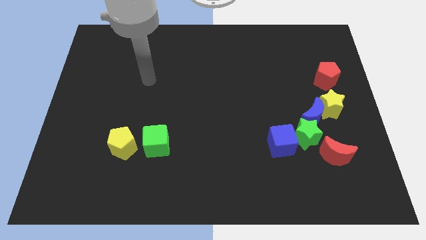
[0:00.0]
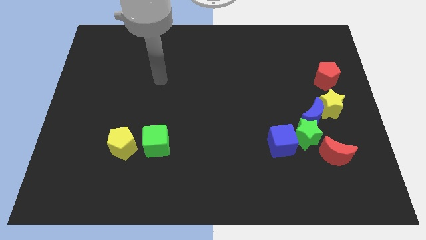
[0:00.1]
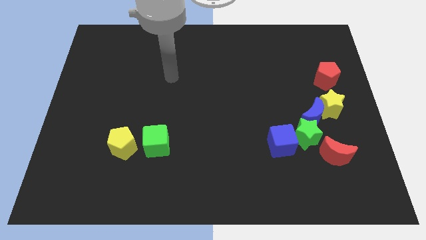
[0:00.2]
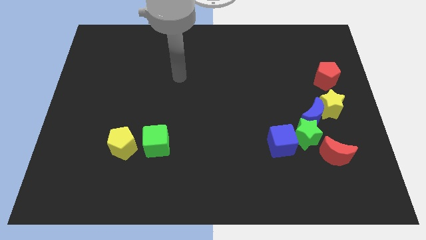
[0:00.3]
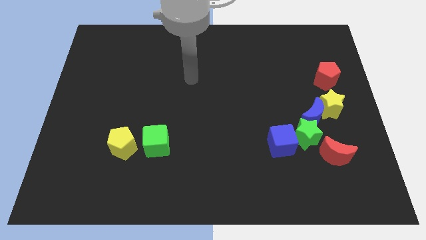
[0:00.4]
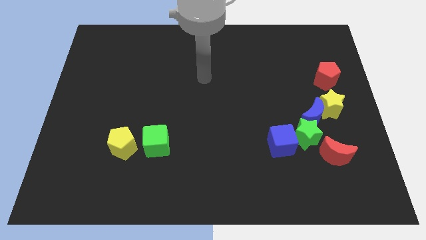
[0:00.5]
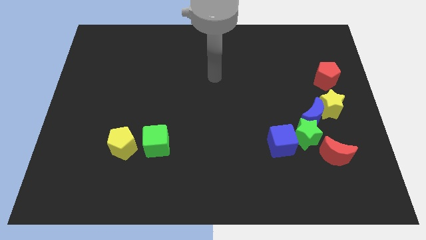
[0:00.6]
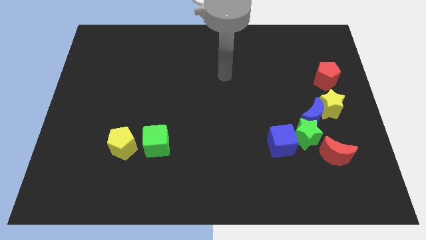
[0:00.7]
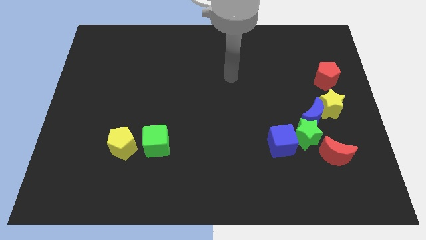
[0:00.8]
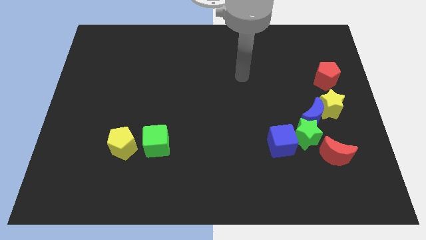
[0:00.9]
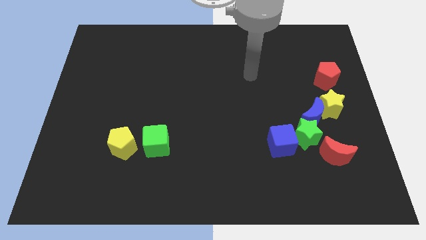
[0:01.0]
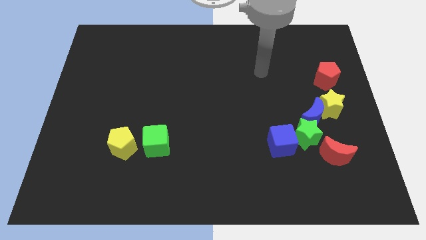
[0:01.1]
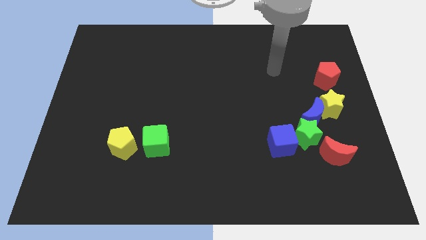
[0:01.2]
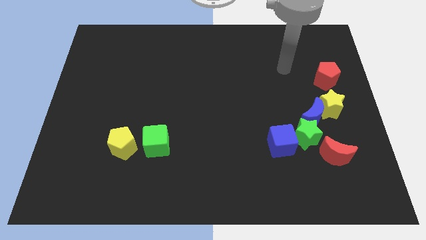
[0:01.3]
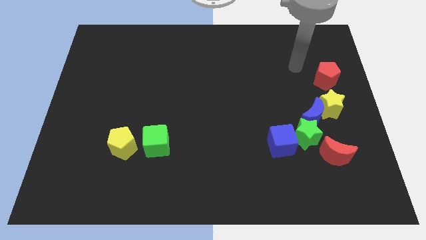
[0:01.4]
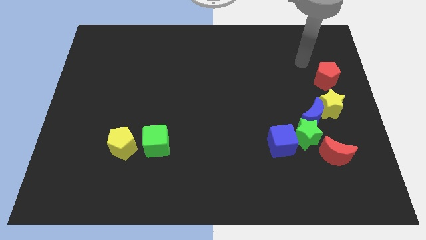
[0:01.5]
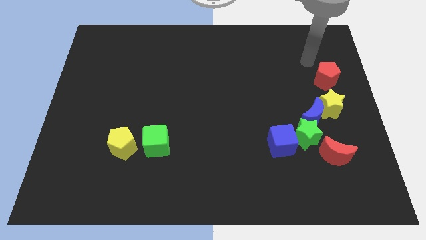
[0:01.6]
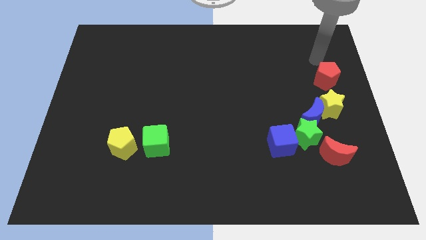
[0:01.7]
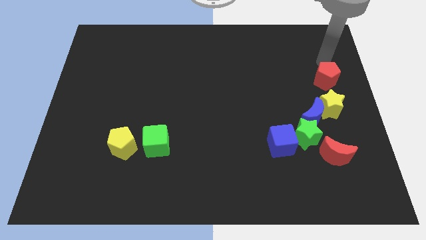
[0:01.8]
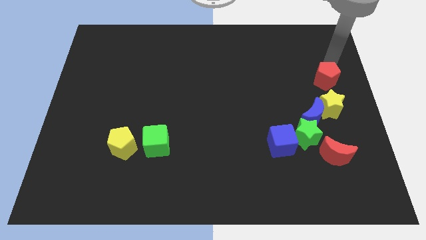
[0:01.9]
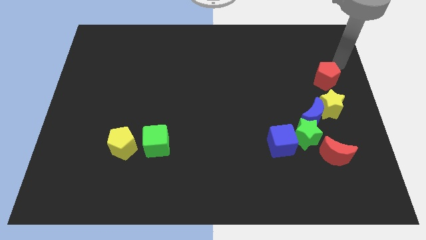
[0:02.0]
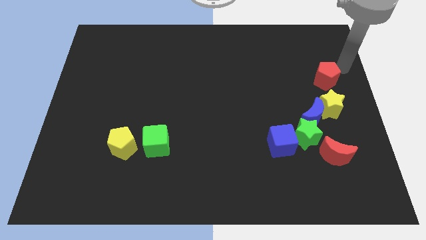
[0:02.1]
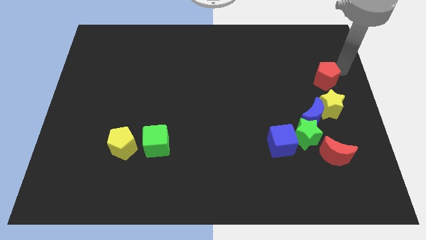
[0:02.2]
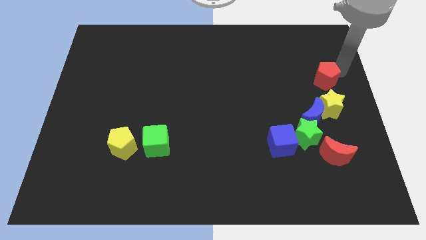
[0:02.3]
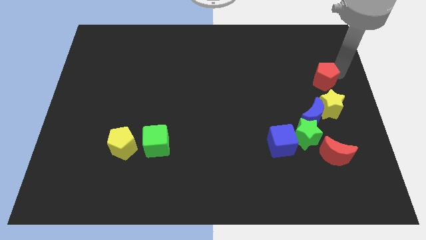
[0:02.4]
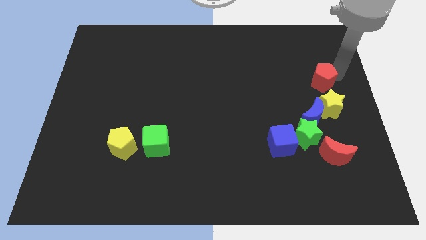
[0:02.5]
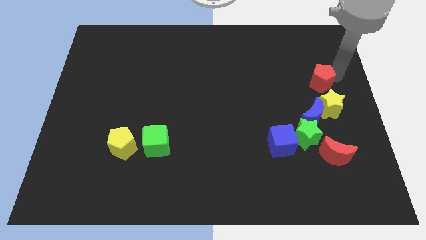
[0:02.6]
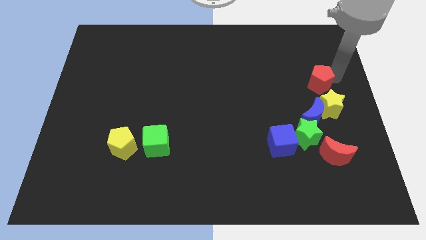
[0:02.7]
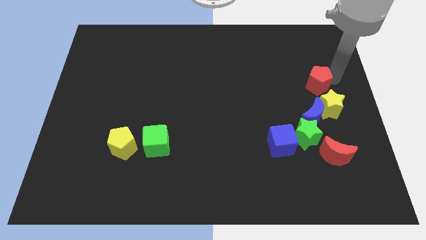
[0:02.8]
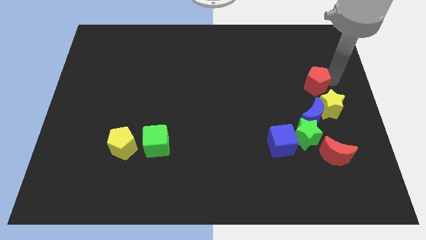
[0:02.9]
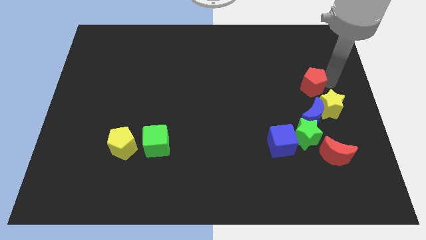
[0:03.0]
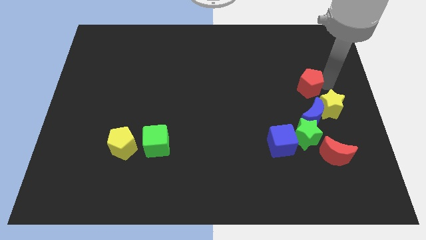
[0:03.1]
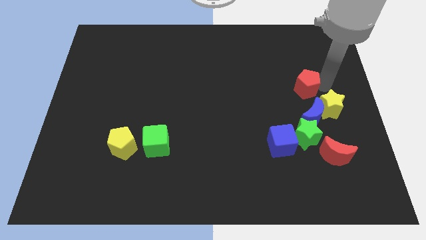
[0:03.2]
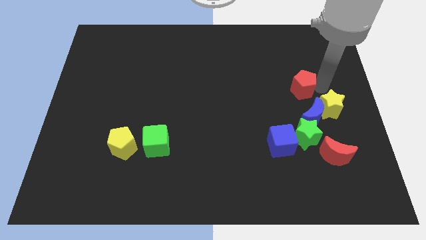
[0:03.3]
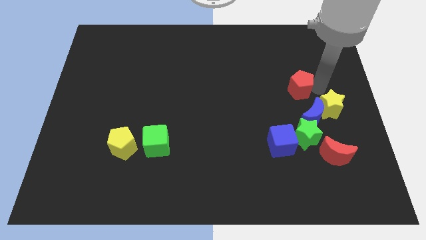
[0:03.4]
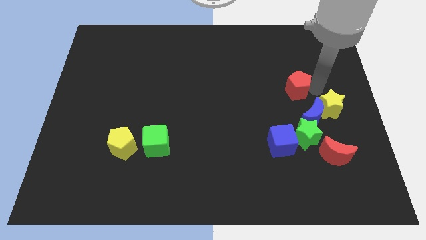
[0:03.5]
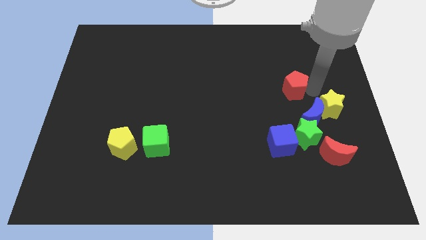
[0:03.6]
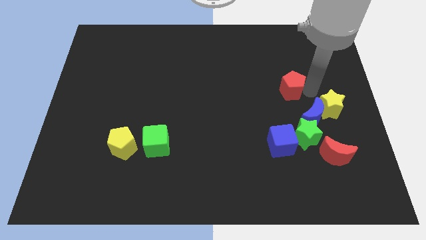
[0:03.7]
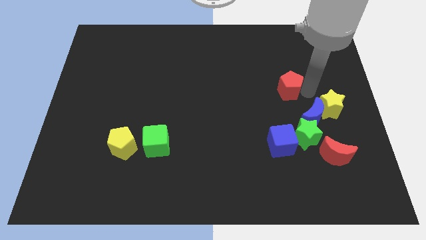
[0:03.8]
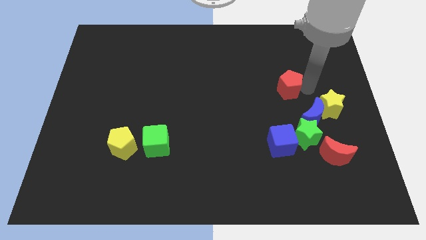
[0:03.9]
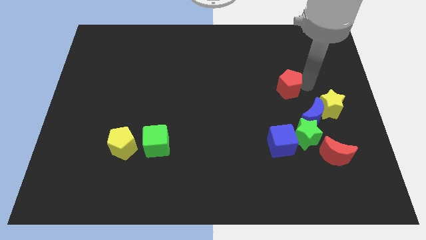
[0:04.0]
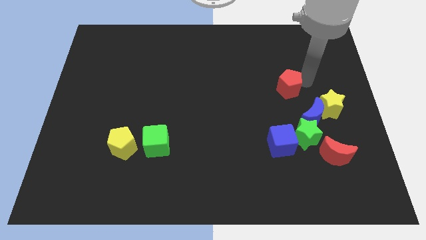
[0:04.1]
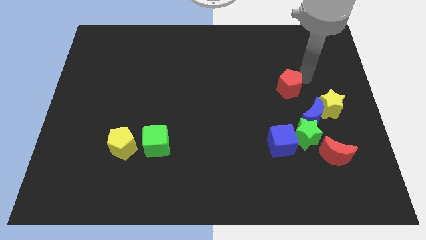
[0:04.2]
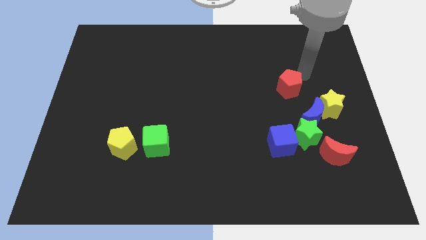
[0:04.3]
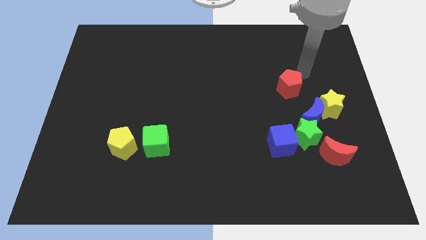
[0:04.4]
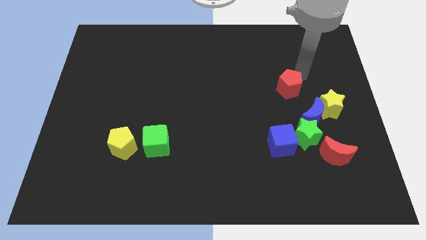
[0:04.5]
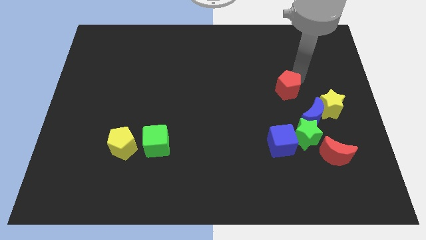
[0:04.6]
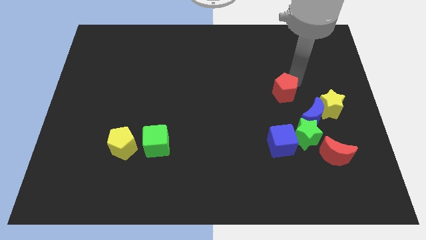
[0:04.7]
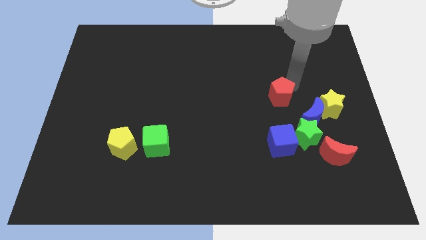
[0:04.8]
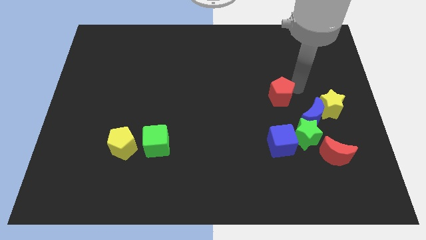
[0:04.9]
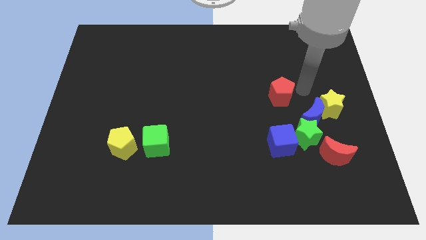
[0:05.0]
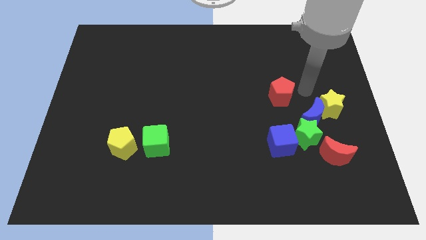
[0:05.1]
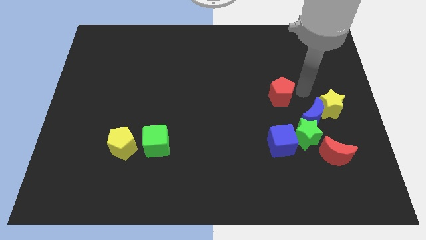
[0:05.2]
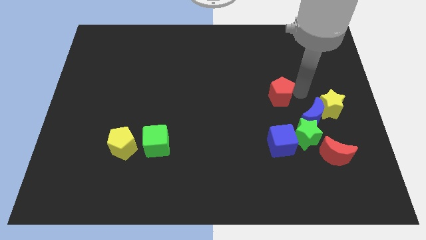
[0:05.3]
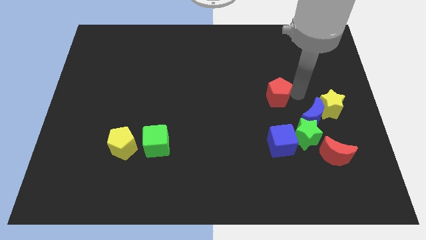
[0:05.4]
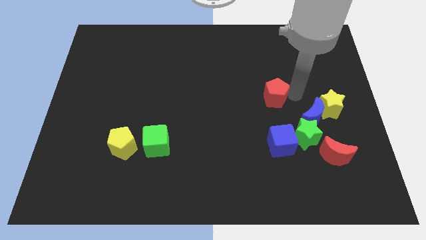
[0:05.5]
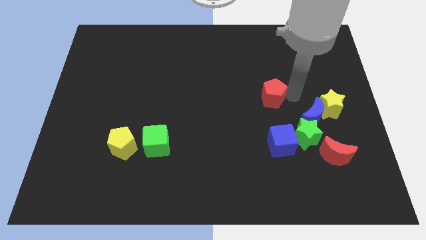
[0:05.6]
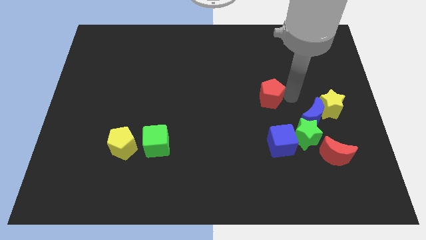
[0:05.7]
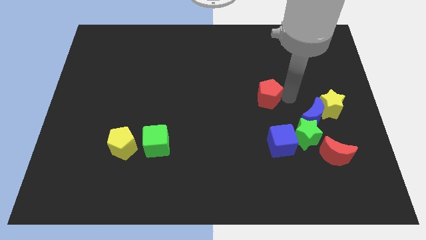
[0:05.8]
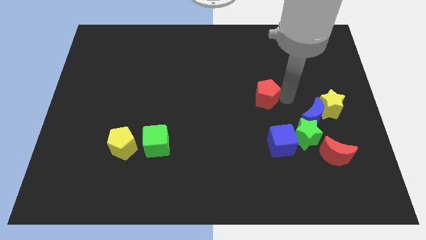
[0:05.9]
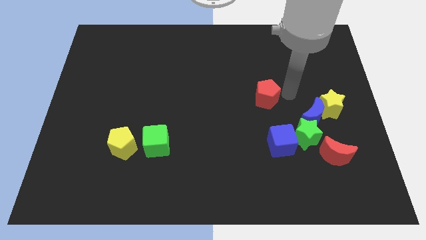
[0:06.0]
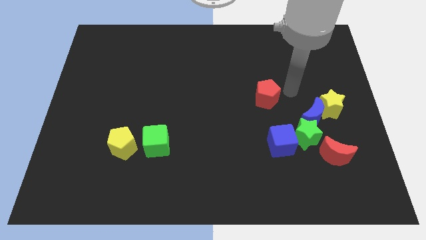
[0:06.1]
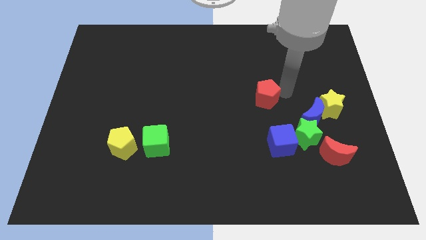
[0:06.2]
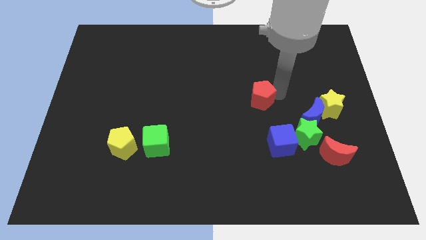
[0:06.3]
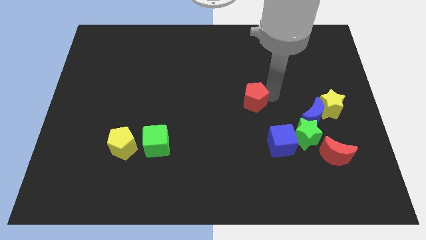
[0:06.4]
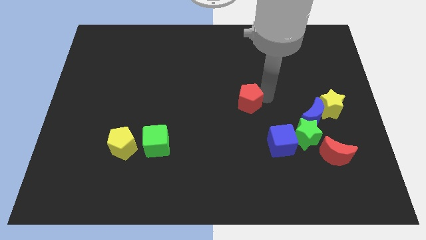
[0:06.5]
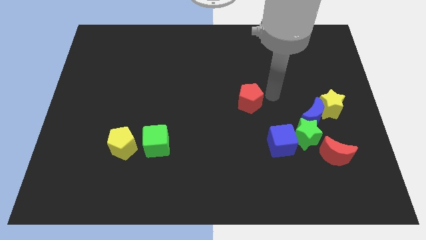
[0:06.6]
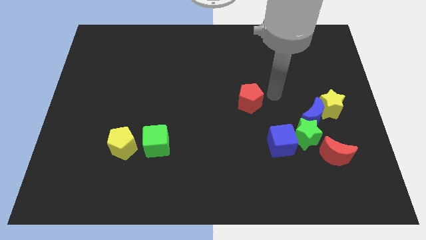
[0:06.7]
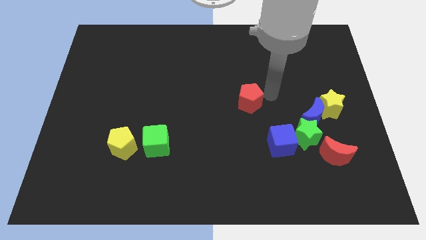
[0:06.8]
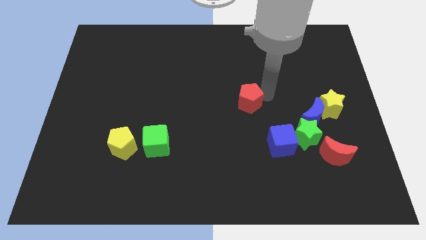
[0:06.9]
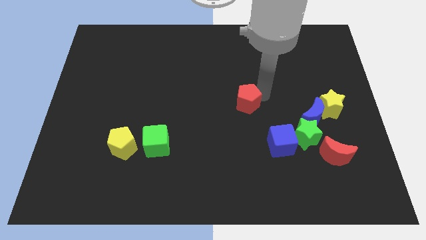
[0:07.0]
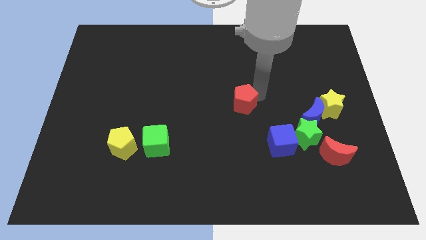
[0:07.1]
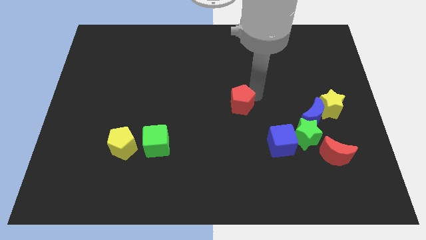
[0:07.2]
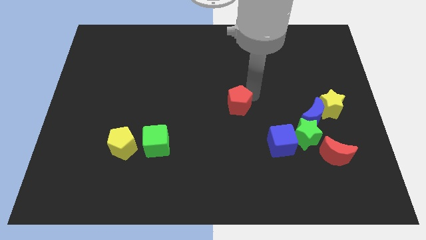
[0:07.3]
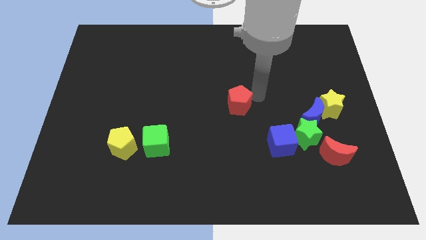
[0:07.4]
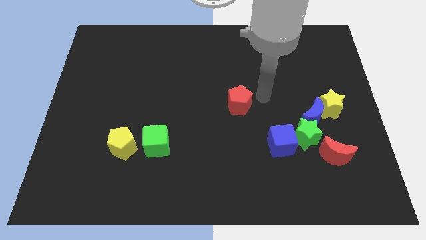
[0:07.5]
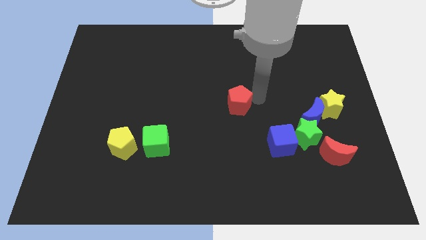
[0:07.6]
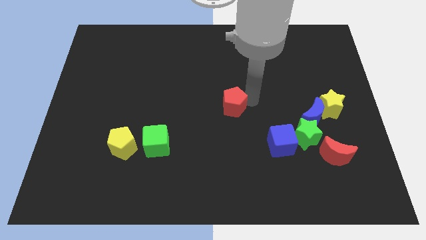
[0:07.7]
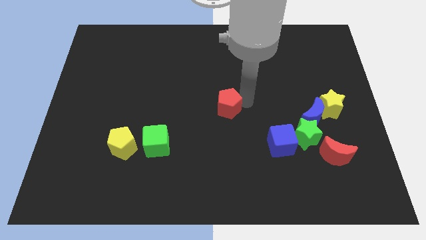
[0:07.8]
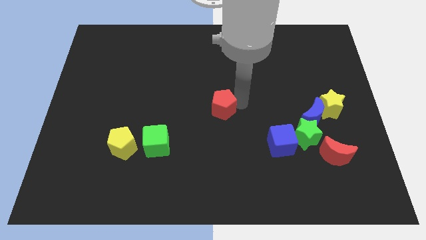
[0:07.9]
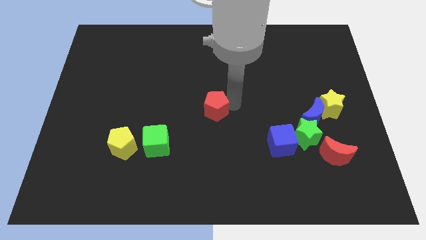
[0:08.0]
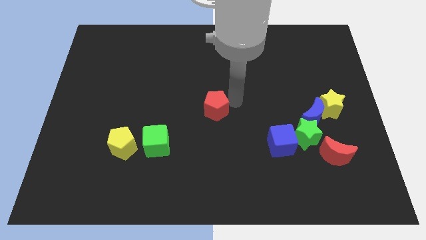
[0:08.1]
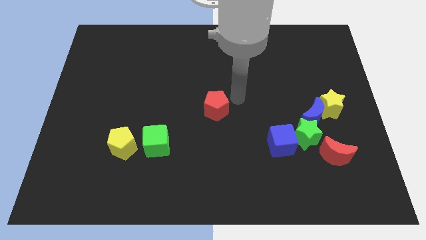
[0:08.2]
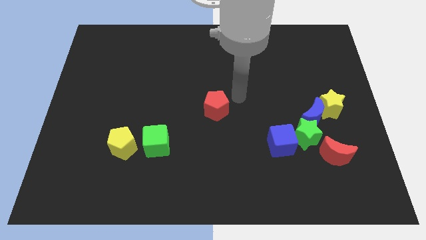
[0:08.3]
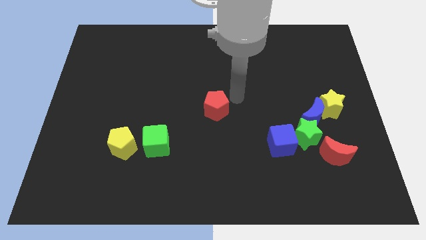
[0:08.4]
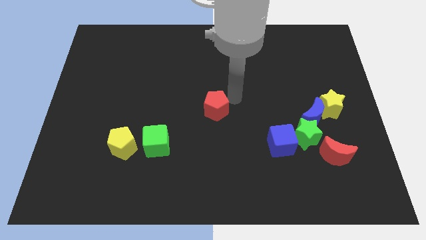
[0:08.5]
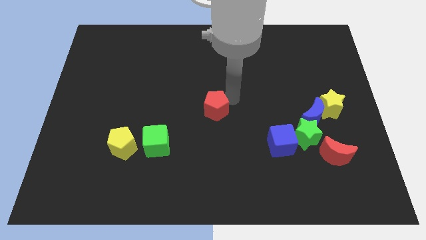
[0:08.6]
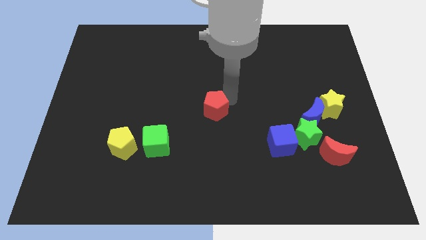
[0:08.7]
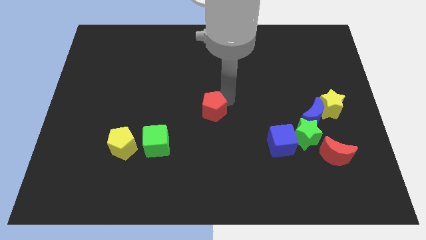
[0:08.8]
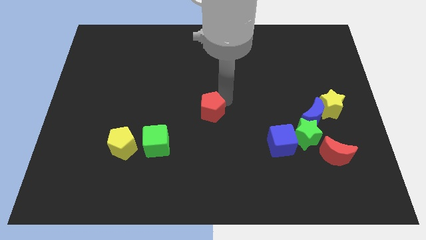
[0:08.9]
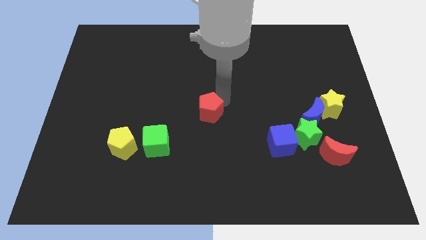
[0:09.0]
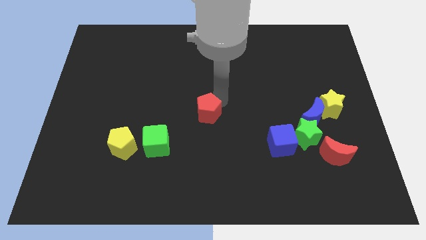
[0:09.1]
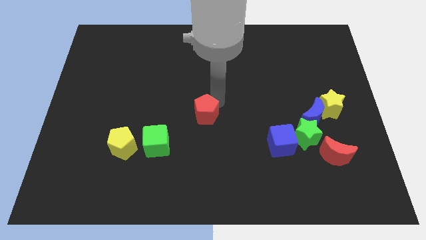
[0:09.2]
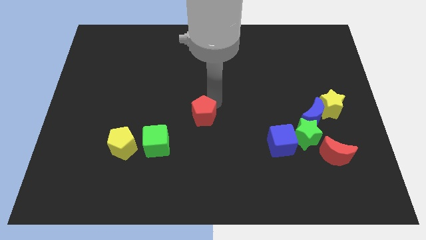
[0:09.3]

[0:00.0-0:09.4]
slide the red pentagon to the top right of the green cube
